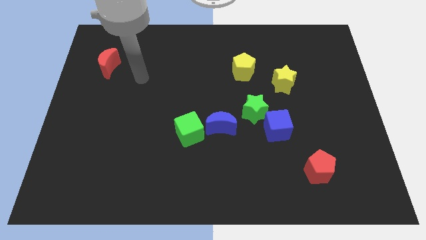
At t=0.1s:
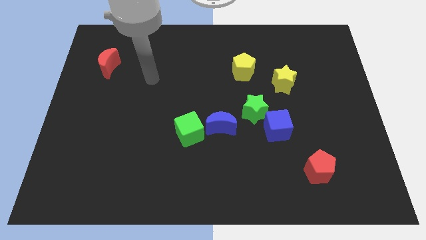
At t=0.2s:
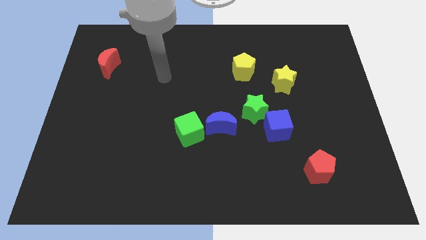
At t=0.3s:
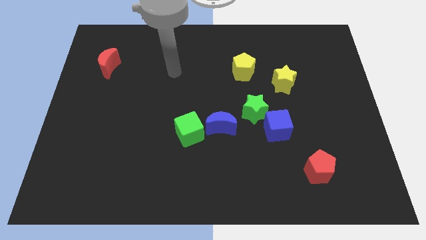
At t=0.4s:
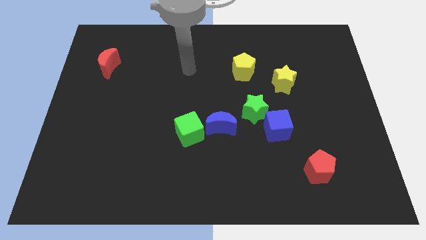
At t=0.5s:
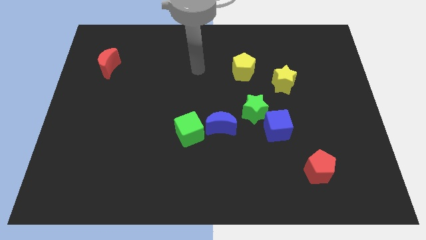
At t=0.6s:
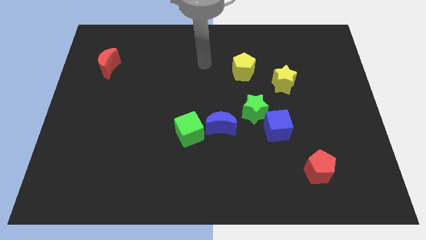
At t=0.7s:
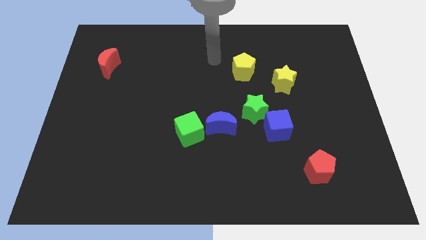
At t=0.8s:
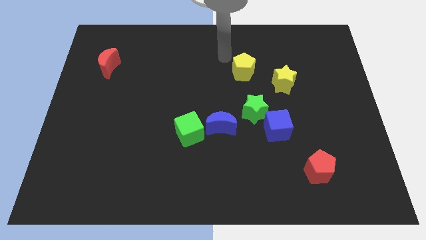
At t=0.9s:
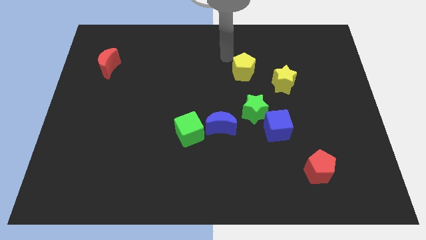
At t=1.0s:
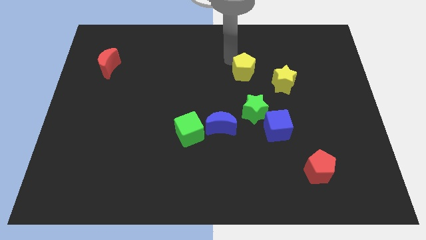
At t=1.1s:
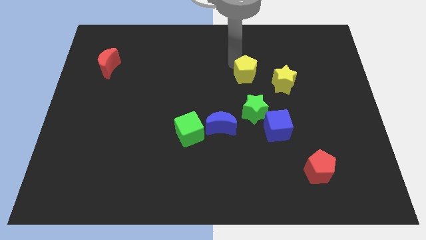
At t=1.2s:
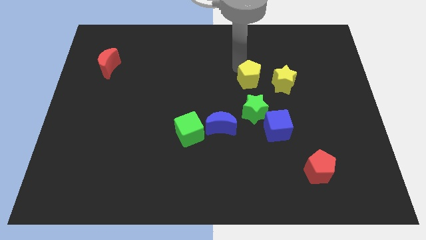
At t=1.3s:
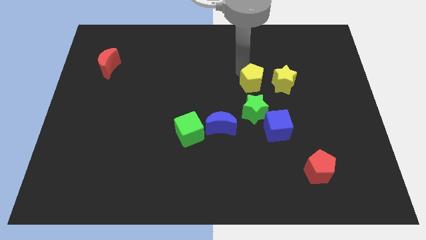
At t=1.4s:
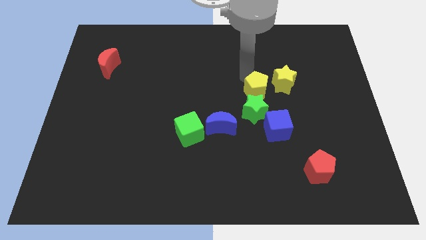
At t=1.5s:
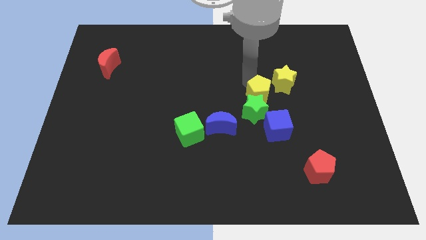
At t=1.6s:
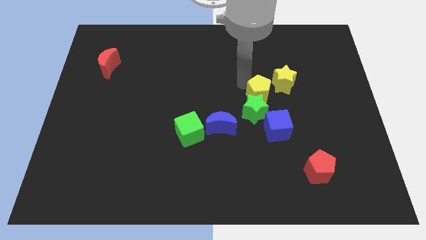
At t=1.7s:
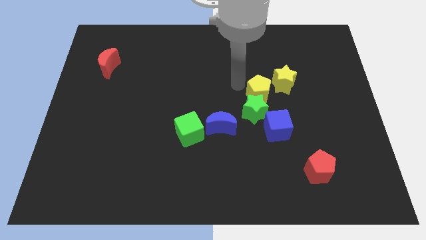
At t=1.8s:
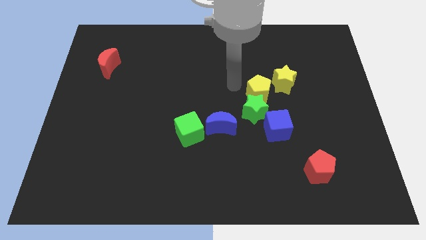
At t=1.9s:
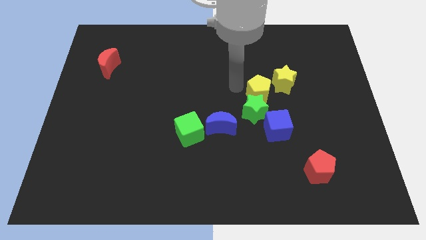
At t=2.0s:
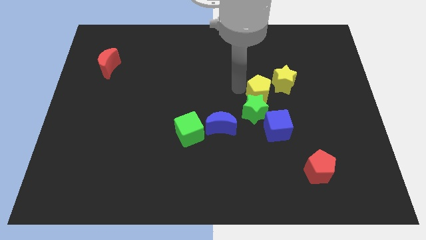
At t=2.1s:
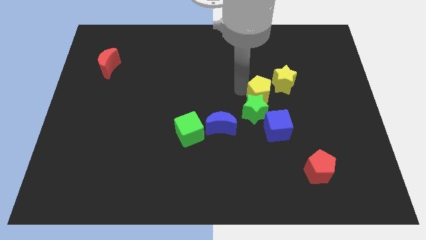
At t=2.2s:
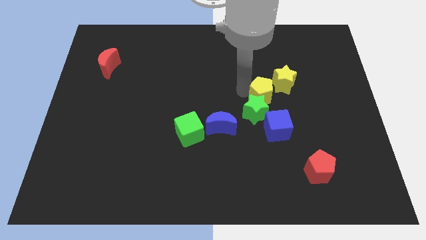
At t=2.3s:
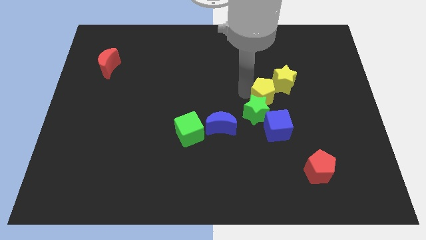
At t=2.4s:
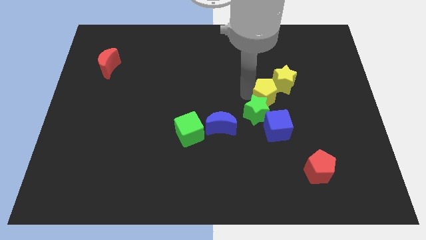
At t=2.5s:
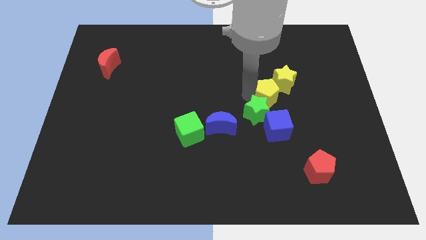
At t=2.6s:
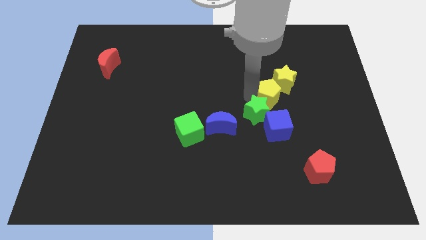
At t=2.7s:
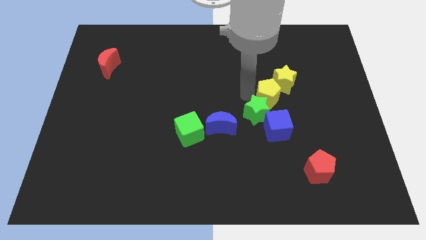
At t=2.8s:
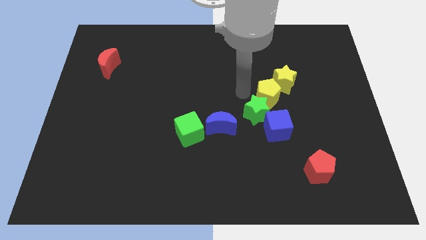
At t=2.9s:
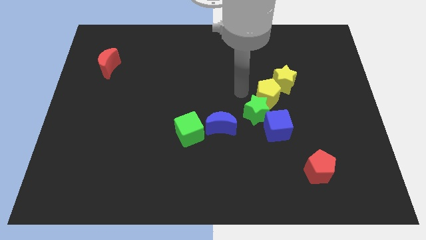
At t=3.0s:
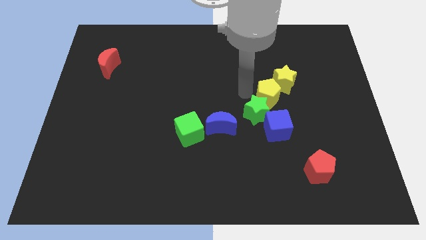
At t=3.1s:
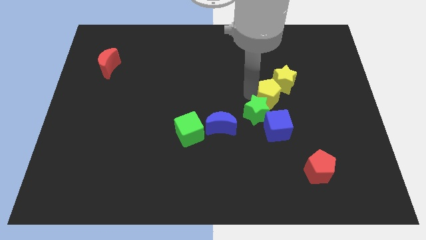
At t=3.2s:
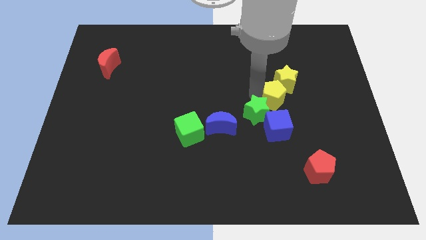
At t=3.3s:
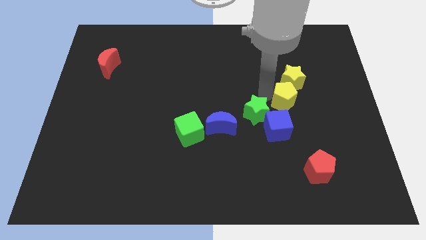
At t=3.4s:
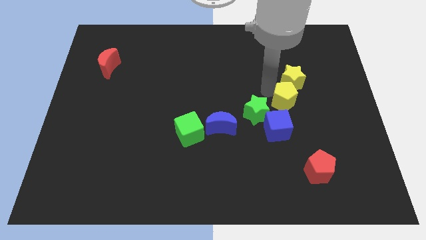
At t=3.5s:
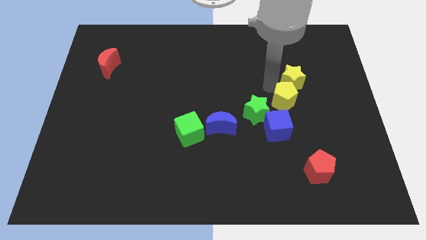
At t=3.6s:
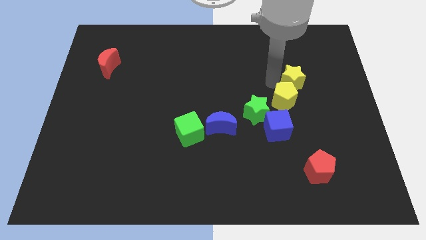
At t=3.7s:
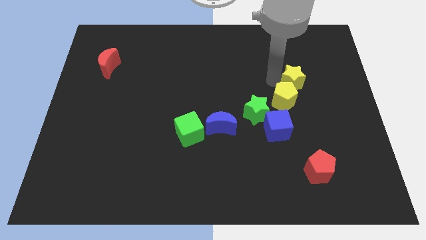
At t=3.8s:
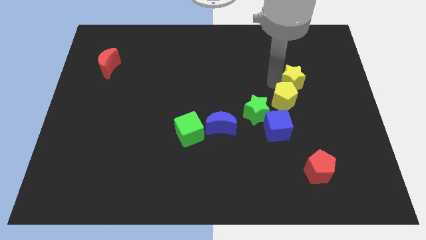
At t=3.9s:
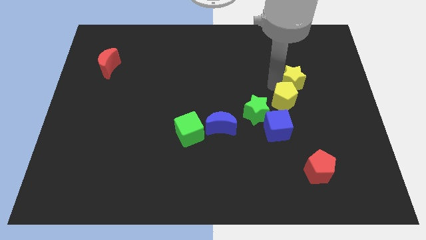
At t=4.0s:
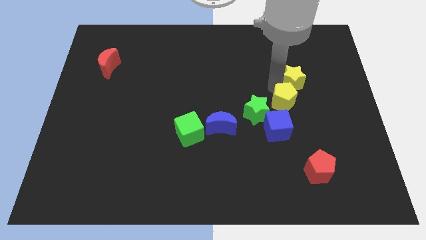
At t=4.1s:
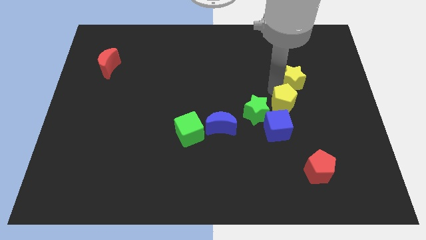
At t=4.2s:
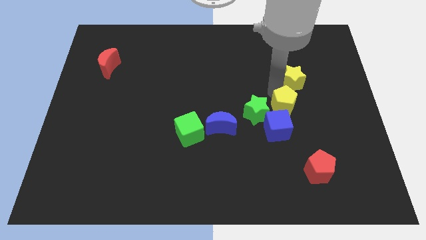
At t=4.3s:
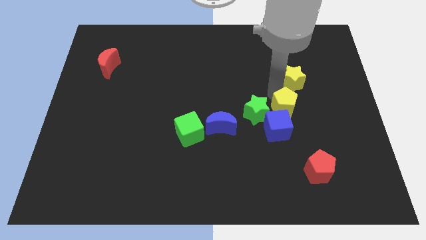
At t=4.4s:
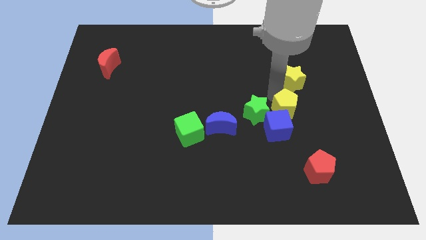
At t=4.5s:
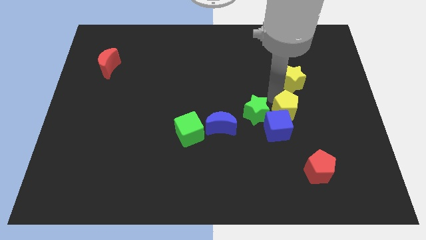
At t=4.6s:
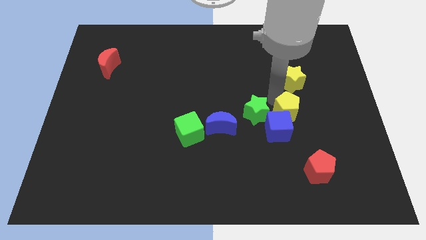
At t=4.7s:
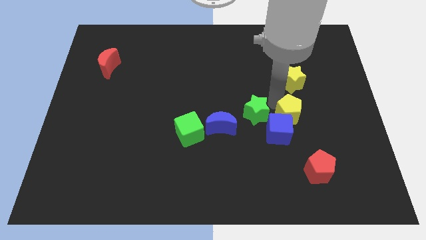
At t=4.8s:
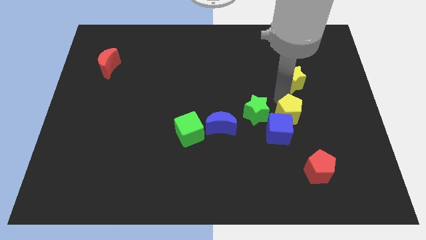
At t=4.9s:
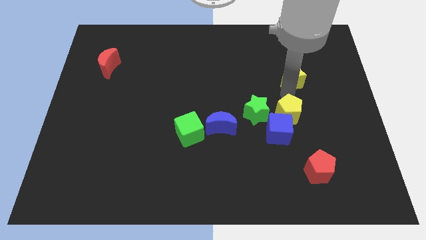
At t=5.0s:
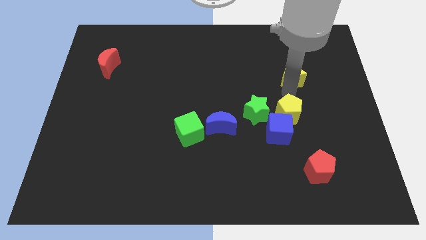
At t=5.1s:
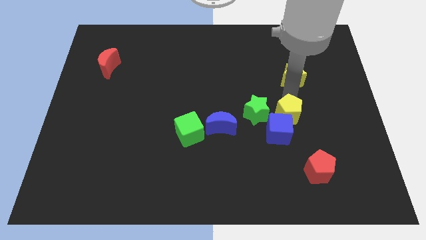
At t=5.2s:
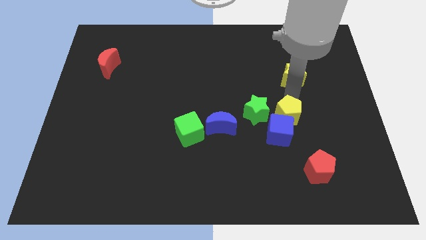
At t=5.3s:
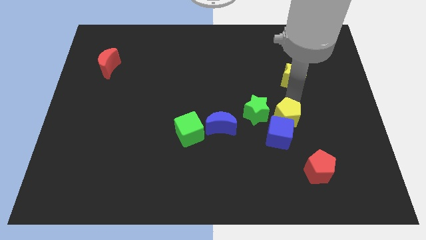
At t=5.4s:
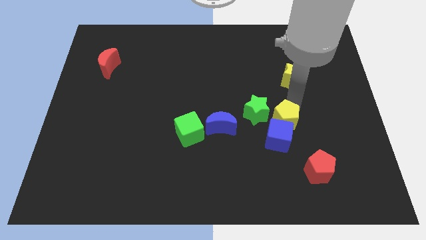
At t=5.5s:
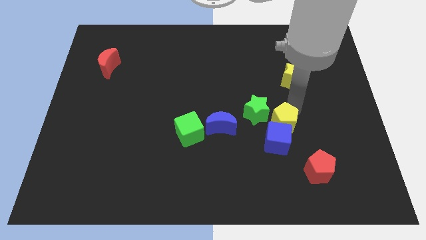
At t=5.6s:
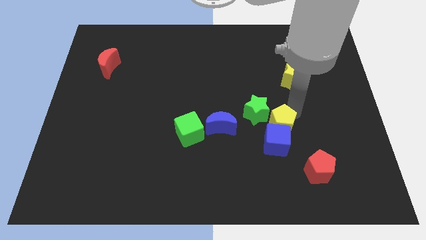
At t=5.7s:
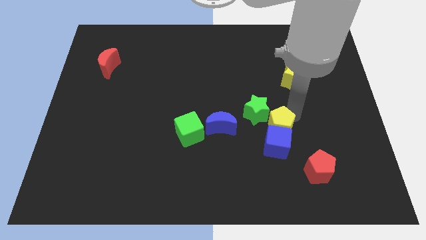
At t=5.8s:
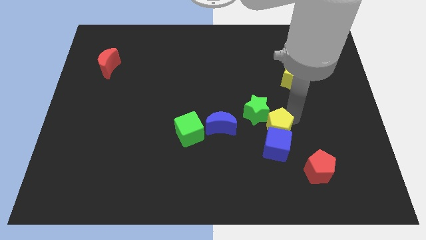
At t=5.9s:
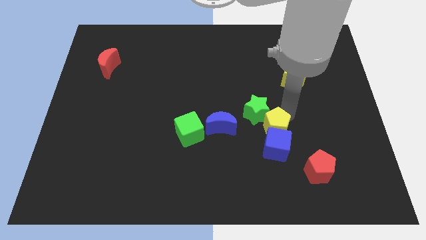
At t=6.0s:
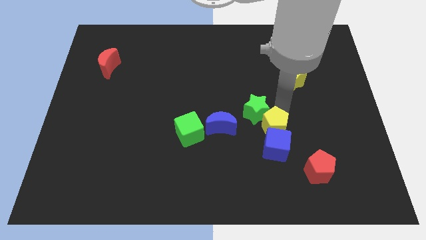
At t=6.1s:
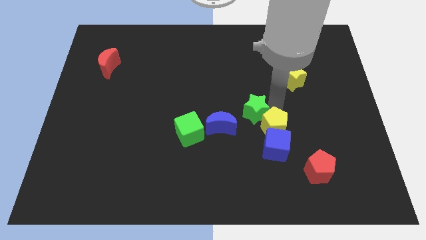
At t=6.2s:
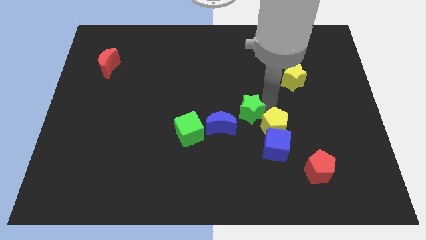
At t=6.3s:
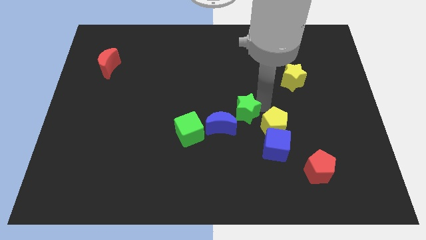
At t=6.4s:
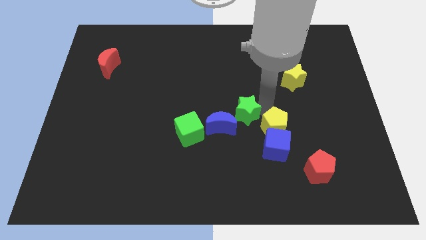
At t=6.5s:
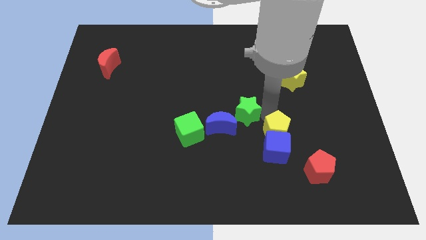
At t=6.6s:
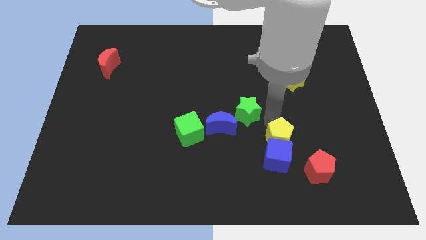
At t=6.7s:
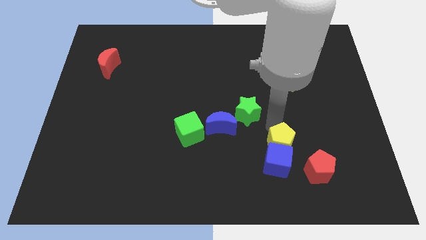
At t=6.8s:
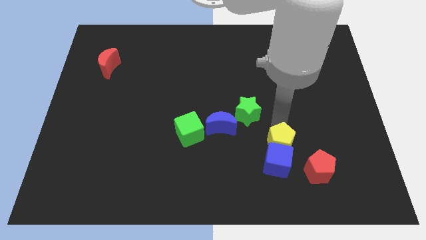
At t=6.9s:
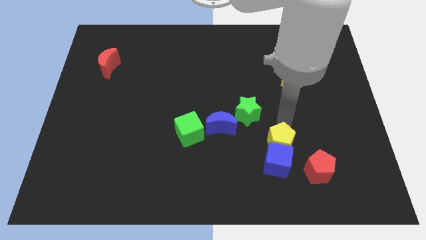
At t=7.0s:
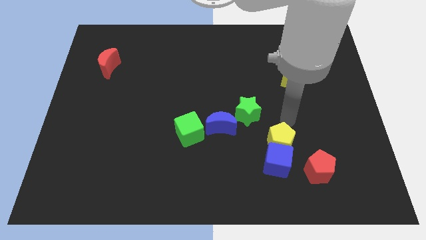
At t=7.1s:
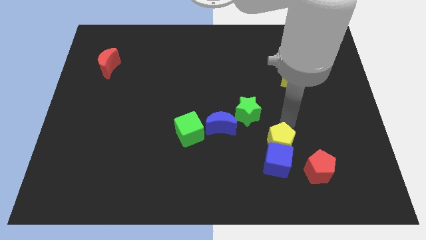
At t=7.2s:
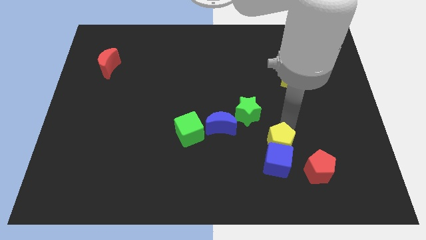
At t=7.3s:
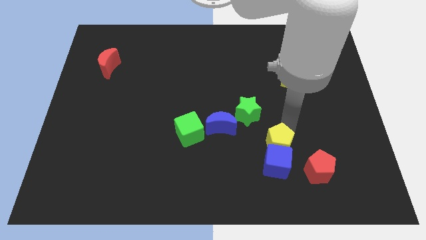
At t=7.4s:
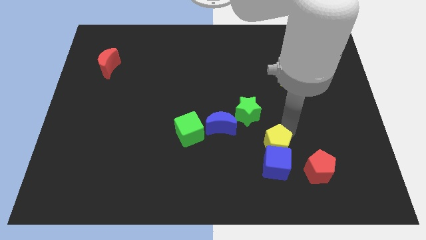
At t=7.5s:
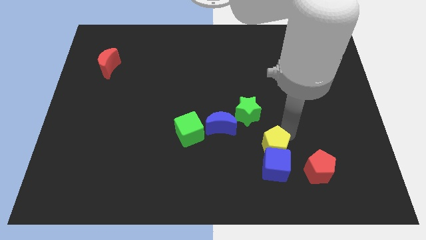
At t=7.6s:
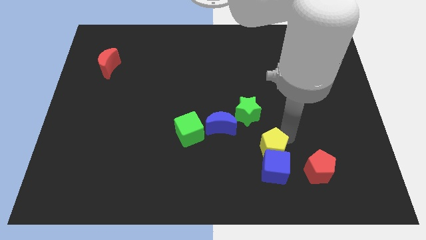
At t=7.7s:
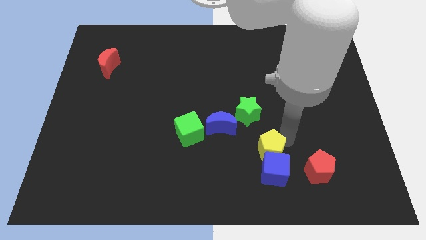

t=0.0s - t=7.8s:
slide the yellow pentagon left of the red pentagon
